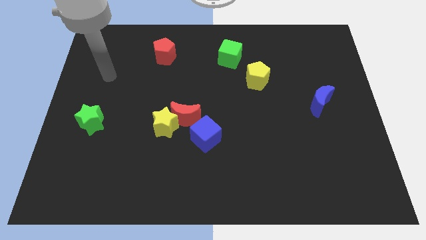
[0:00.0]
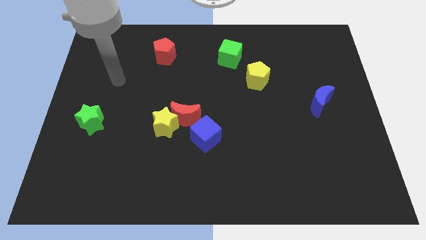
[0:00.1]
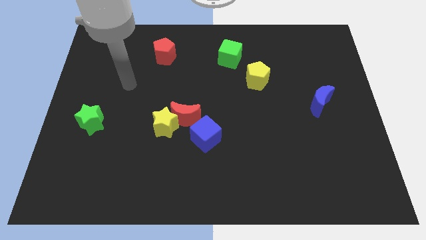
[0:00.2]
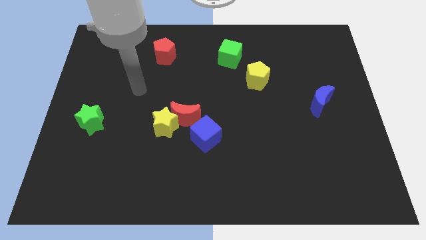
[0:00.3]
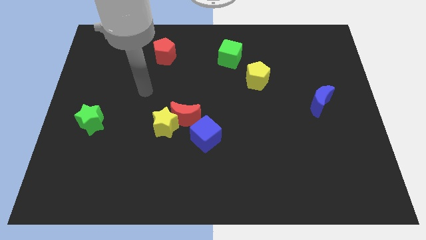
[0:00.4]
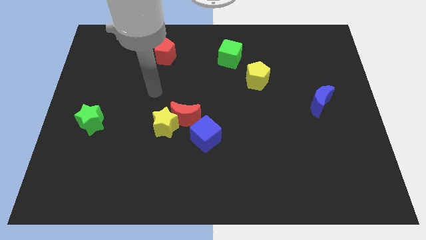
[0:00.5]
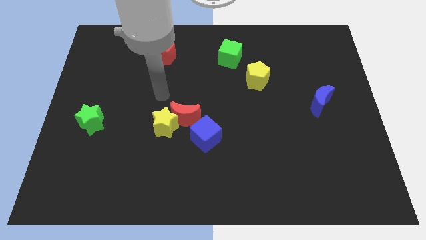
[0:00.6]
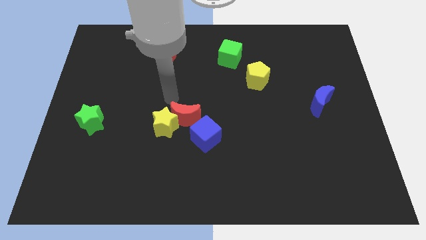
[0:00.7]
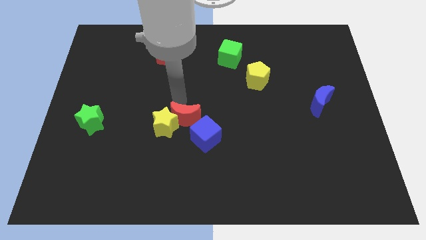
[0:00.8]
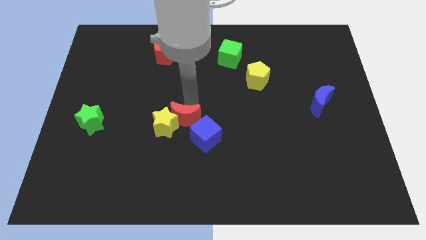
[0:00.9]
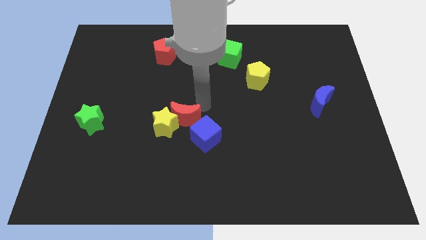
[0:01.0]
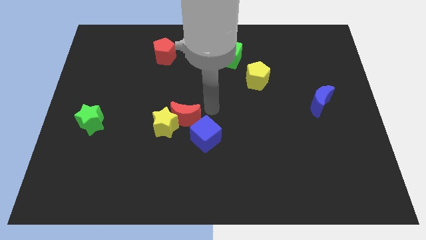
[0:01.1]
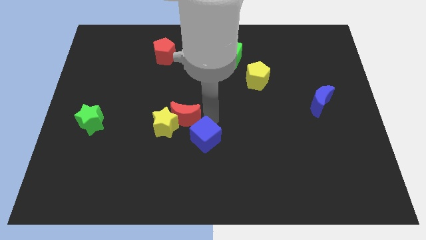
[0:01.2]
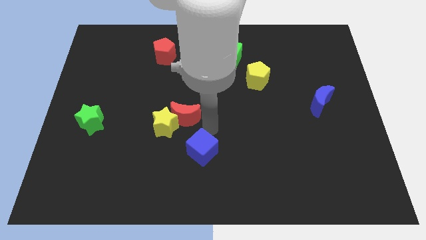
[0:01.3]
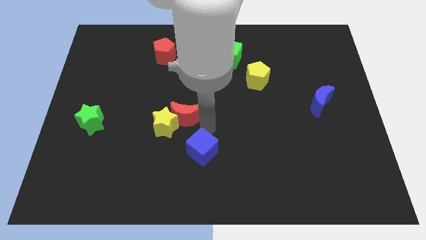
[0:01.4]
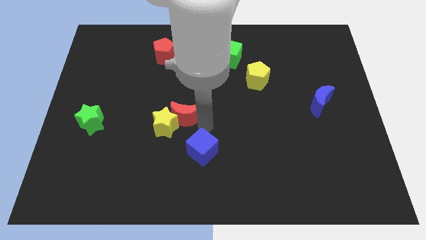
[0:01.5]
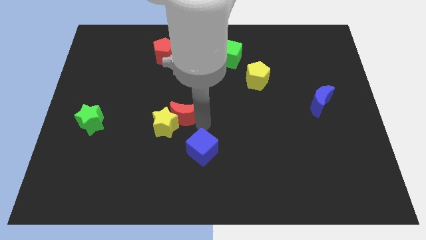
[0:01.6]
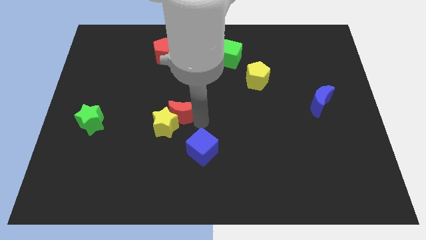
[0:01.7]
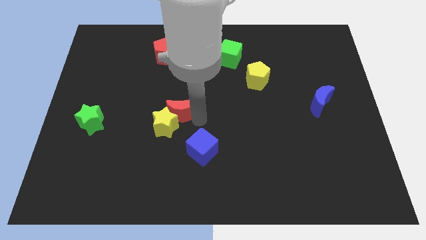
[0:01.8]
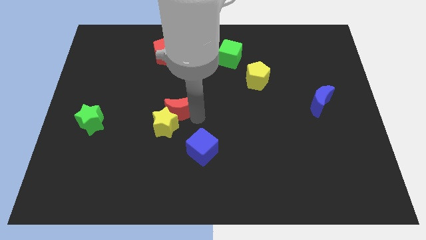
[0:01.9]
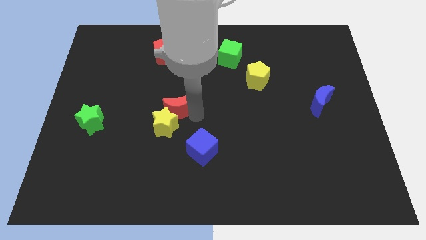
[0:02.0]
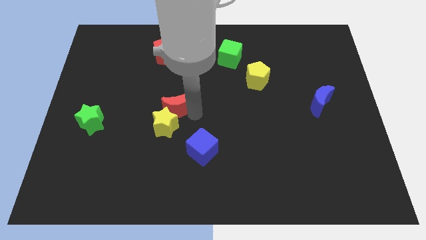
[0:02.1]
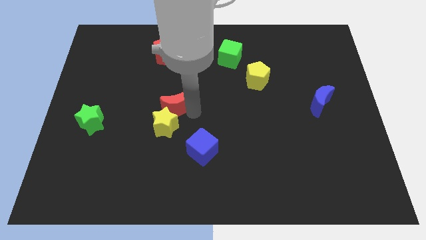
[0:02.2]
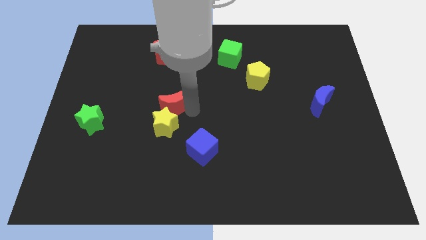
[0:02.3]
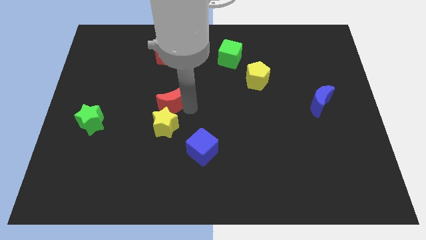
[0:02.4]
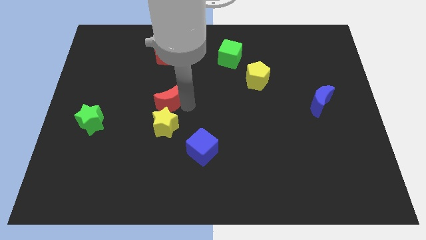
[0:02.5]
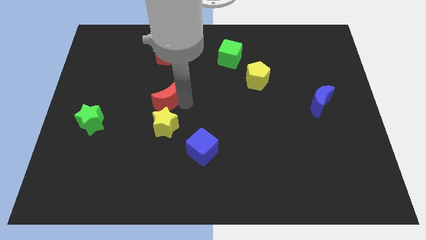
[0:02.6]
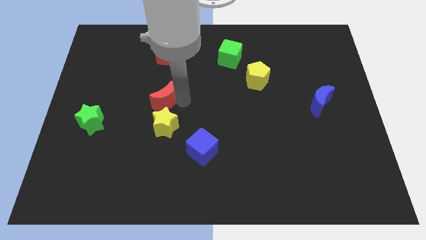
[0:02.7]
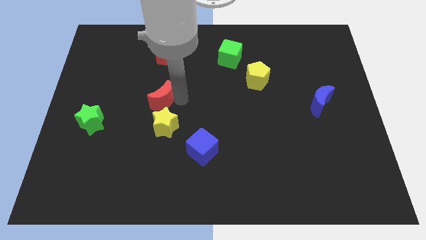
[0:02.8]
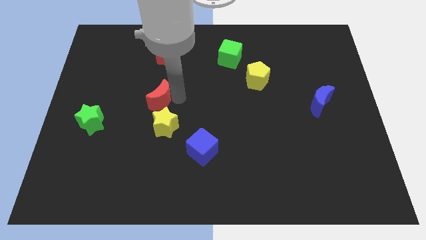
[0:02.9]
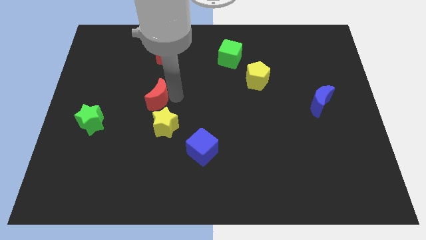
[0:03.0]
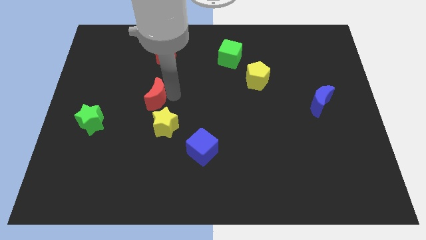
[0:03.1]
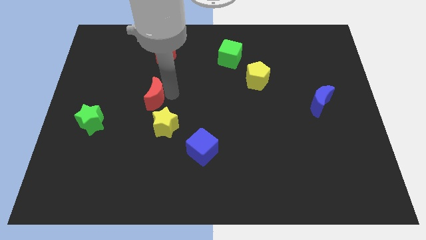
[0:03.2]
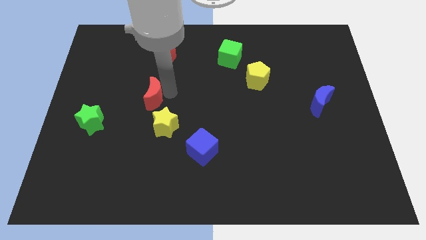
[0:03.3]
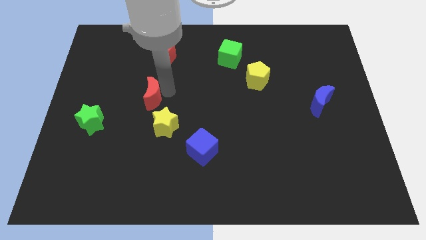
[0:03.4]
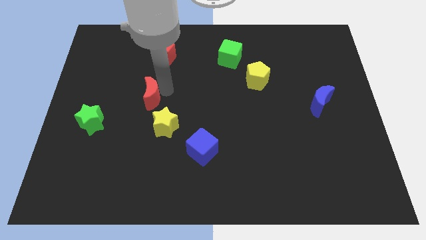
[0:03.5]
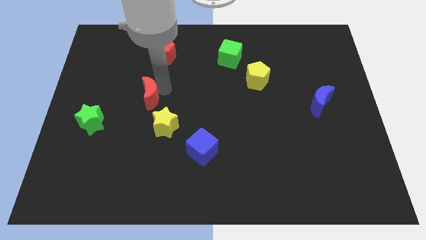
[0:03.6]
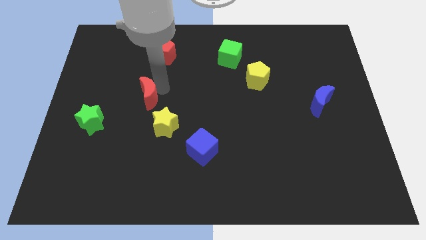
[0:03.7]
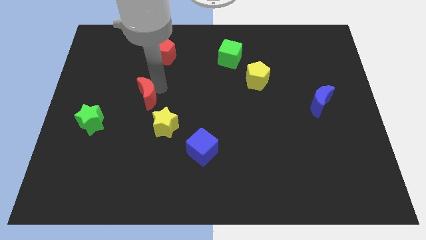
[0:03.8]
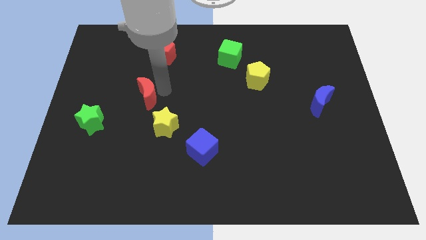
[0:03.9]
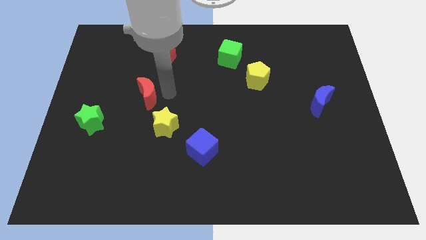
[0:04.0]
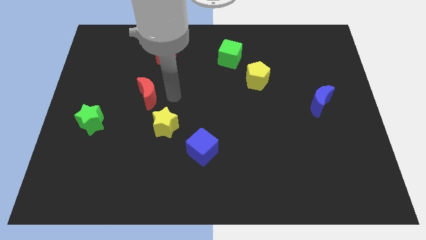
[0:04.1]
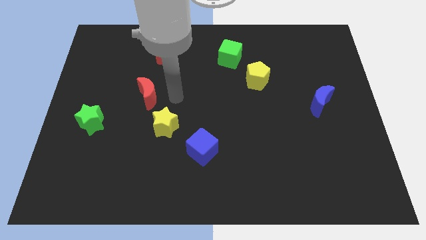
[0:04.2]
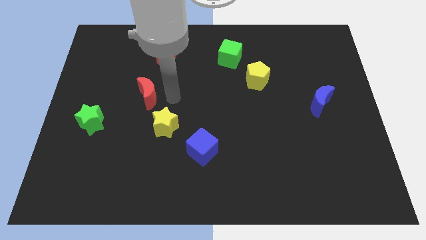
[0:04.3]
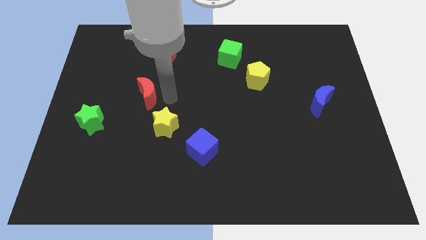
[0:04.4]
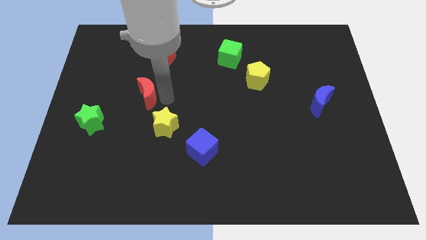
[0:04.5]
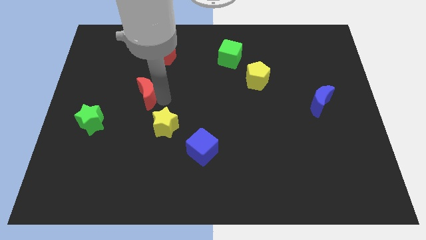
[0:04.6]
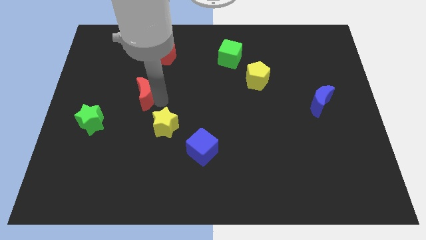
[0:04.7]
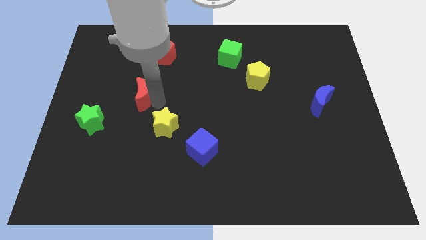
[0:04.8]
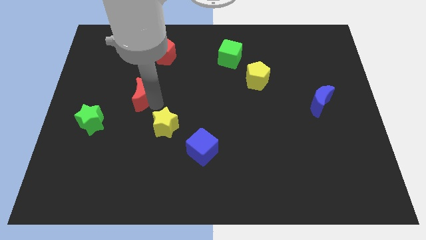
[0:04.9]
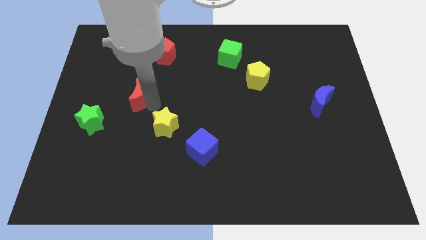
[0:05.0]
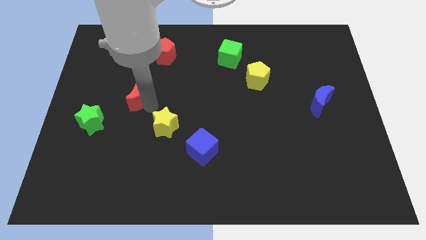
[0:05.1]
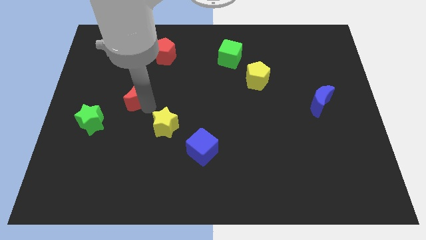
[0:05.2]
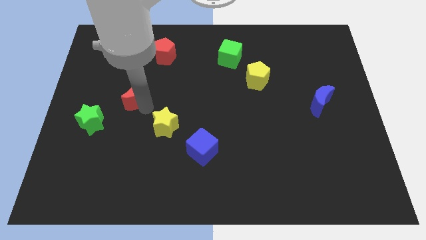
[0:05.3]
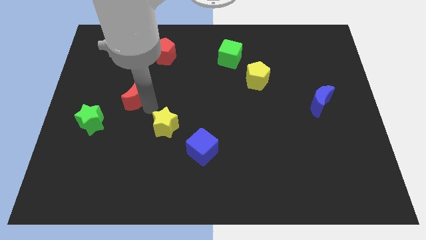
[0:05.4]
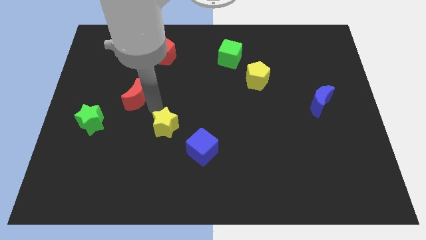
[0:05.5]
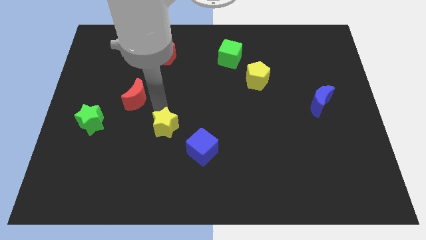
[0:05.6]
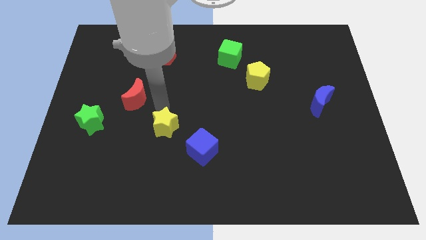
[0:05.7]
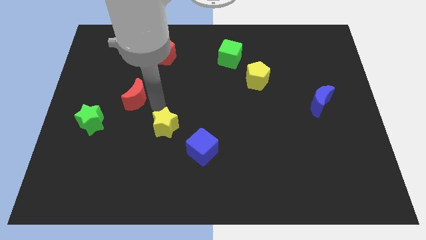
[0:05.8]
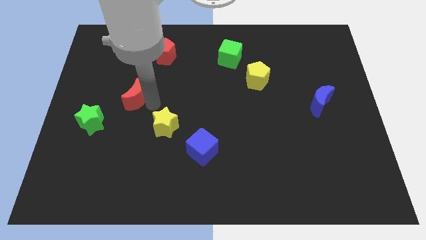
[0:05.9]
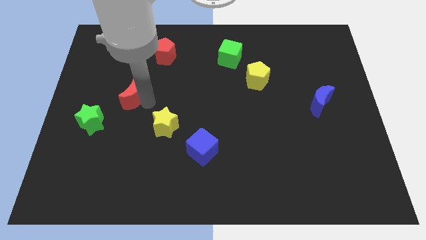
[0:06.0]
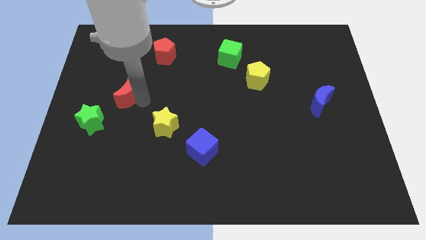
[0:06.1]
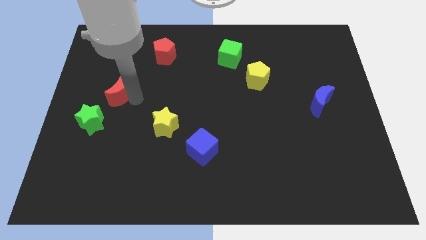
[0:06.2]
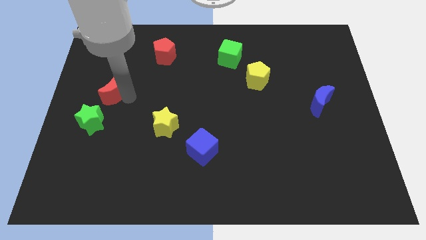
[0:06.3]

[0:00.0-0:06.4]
slide the red moon to the top of the green star
